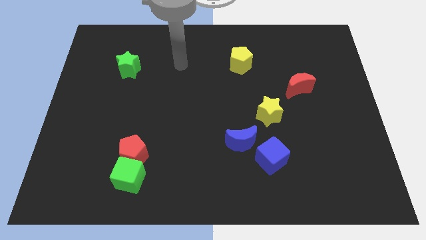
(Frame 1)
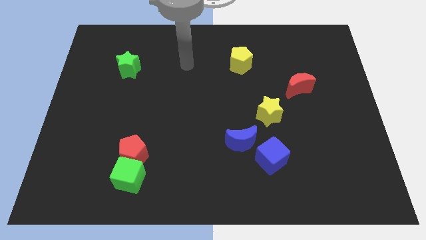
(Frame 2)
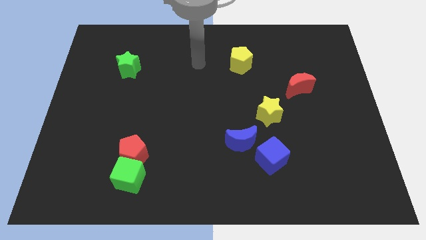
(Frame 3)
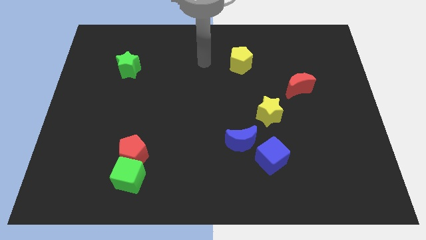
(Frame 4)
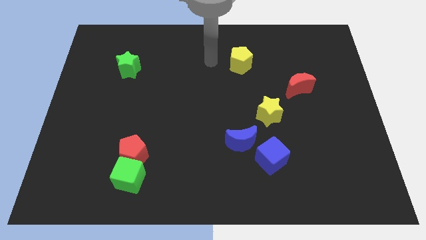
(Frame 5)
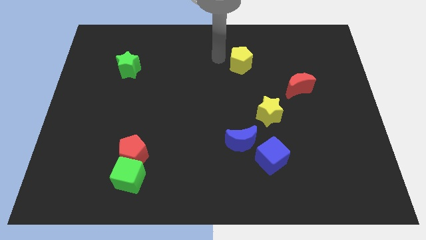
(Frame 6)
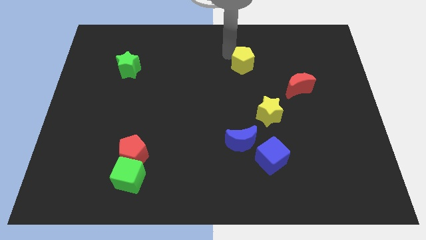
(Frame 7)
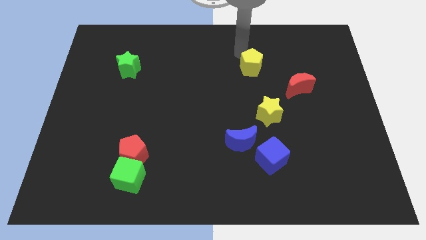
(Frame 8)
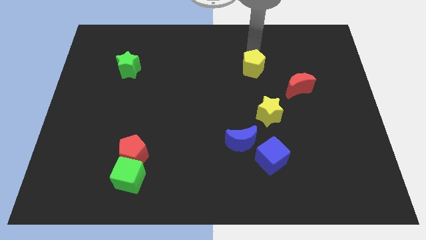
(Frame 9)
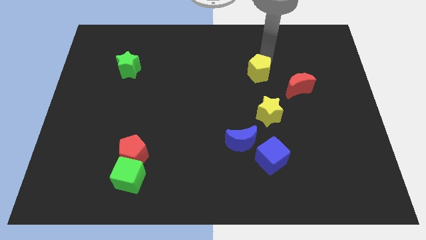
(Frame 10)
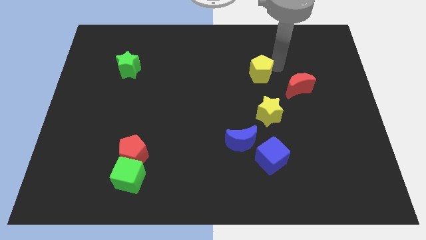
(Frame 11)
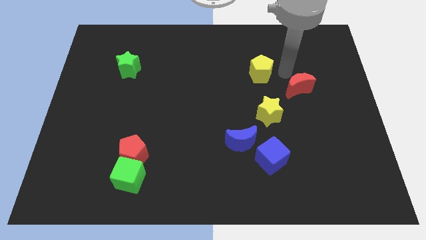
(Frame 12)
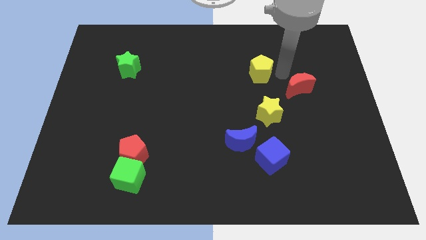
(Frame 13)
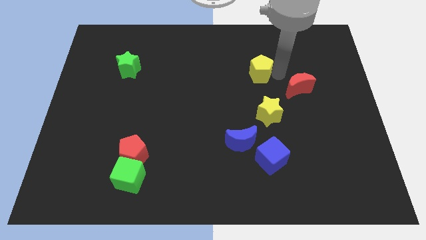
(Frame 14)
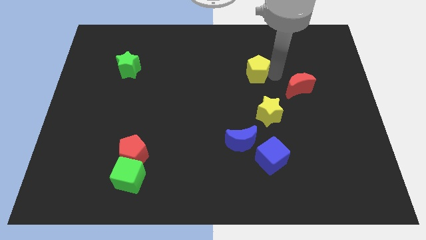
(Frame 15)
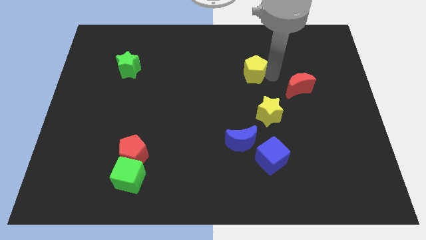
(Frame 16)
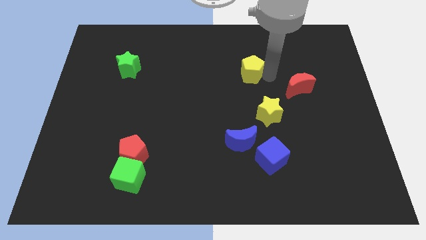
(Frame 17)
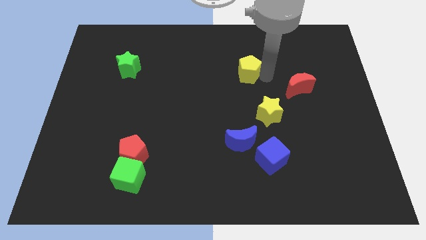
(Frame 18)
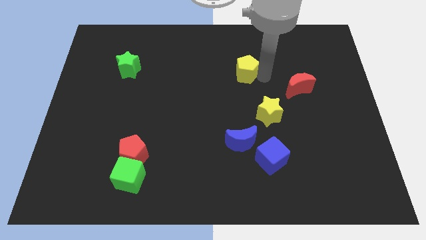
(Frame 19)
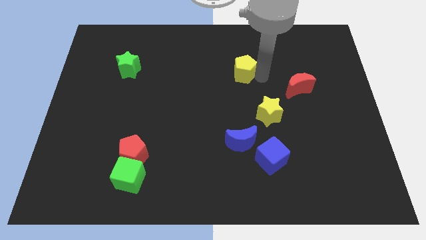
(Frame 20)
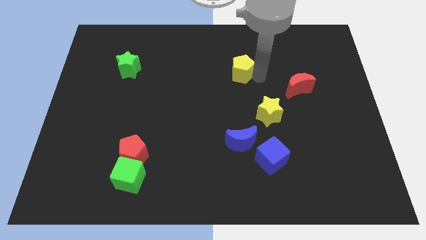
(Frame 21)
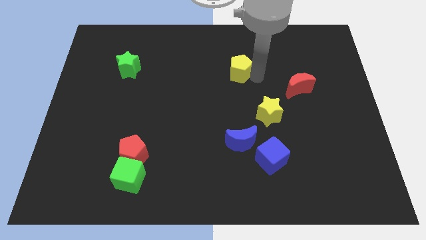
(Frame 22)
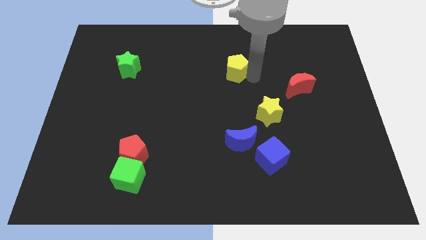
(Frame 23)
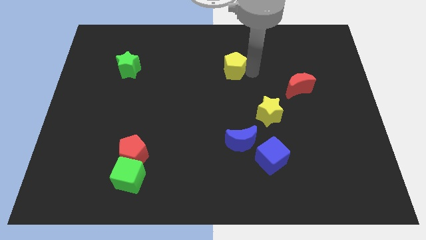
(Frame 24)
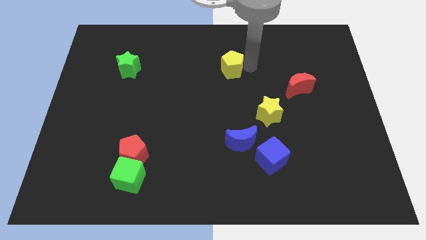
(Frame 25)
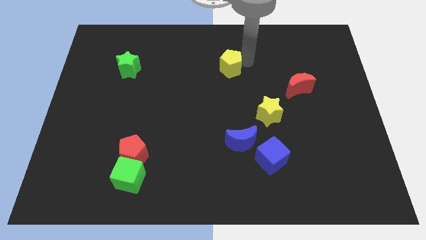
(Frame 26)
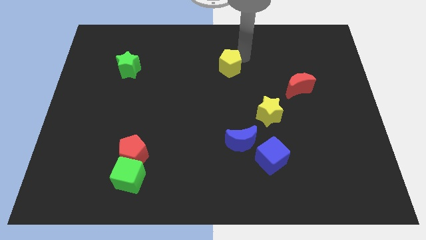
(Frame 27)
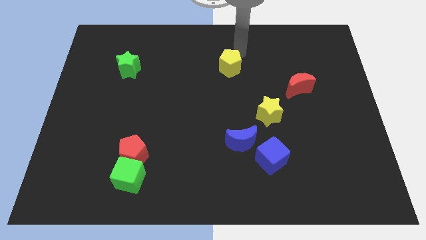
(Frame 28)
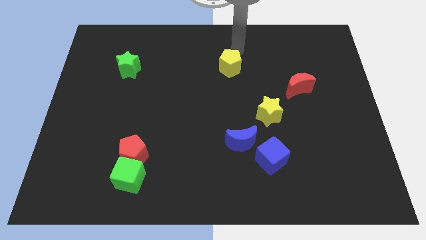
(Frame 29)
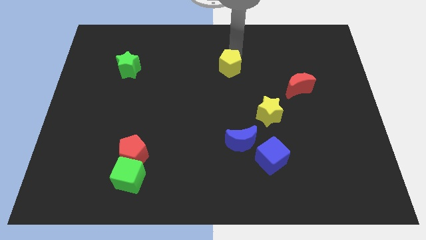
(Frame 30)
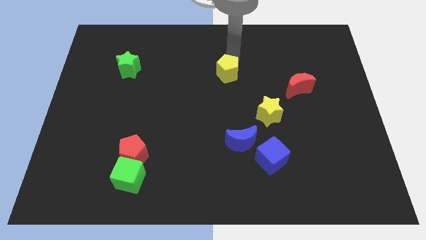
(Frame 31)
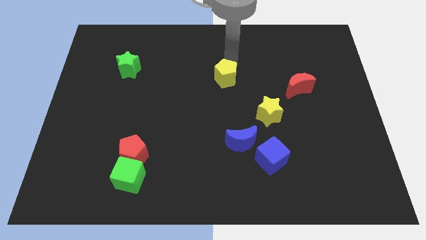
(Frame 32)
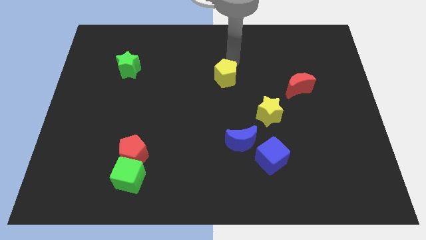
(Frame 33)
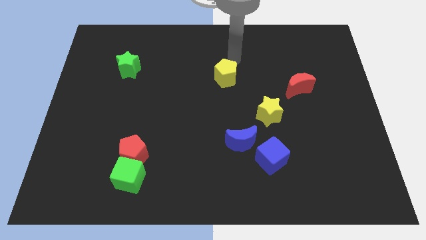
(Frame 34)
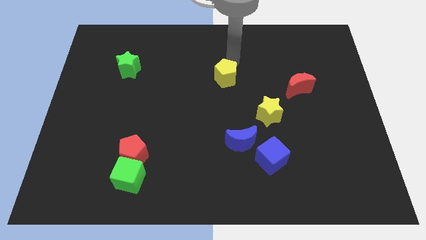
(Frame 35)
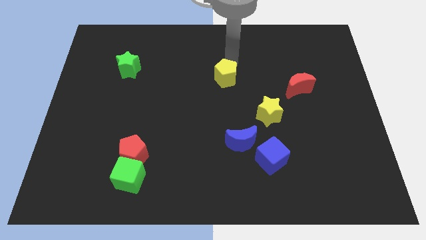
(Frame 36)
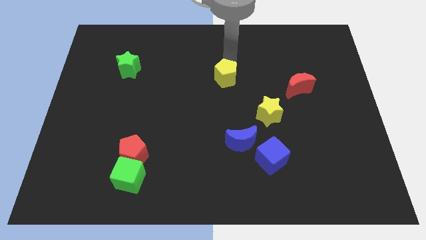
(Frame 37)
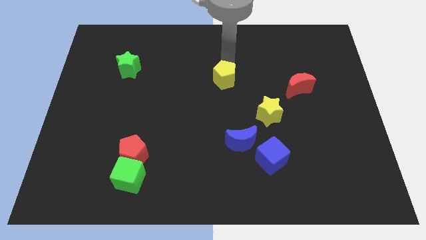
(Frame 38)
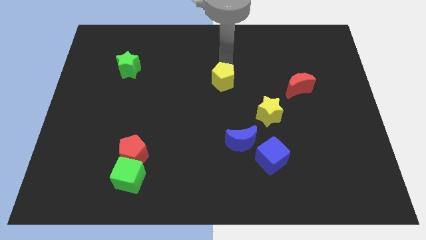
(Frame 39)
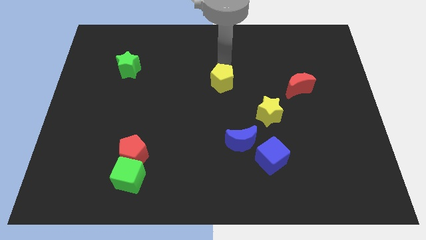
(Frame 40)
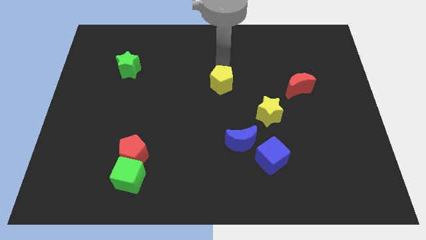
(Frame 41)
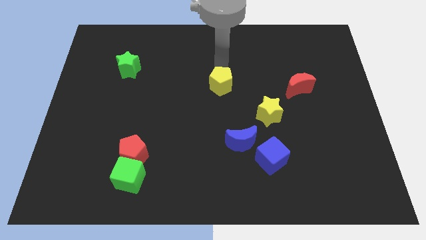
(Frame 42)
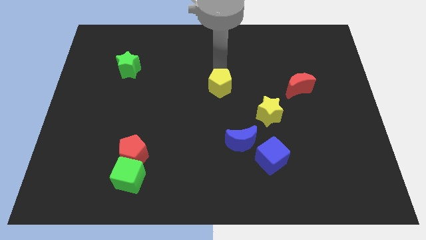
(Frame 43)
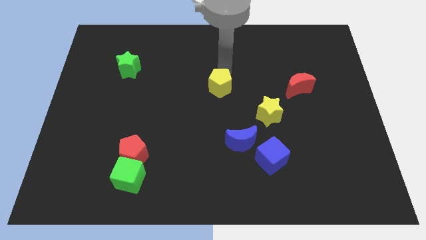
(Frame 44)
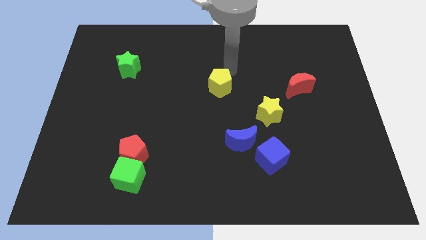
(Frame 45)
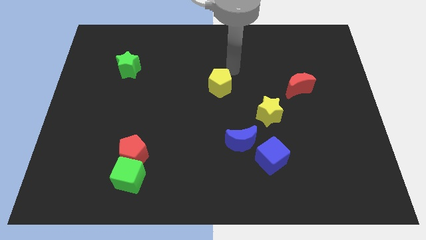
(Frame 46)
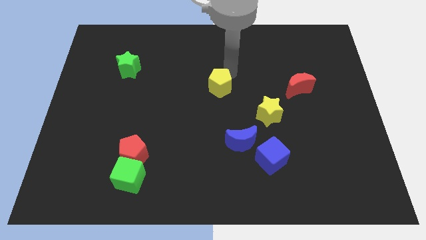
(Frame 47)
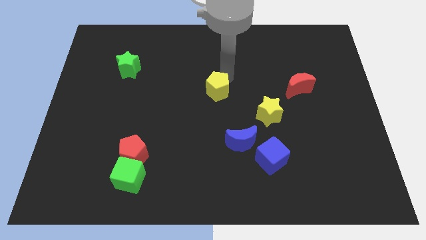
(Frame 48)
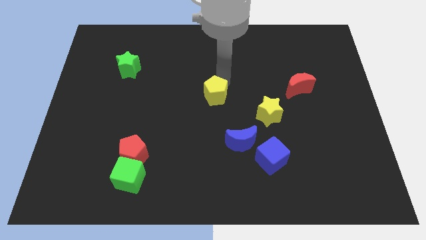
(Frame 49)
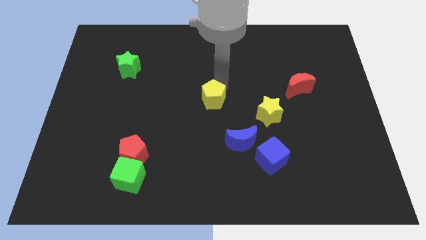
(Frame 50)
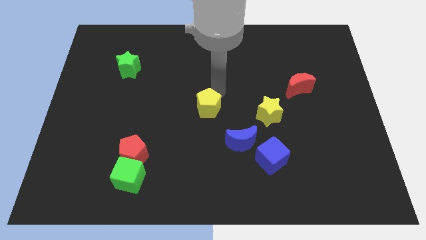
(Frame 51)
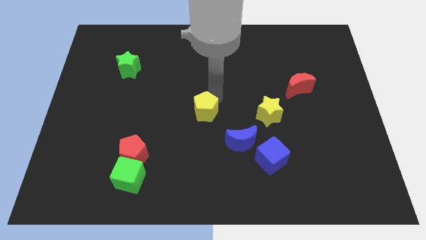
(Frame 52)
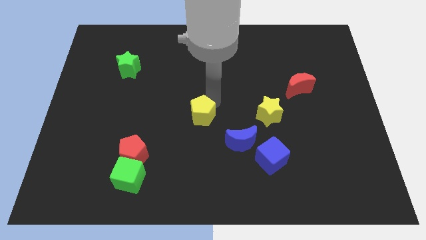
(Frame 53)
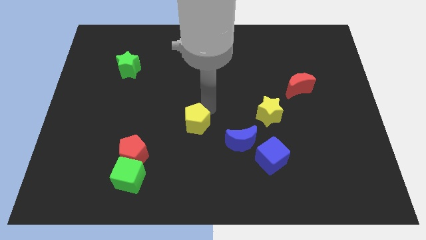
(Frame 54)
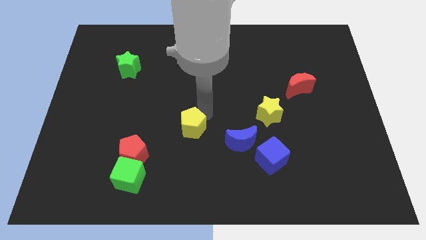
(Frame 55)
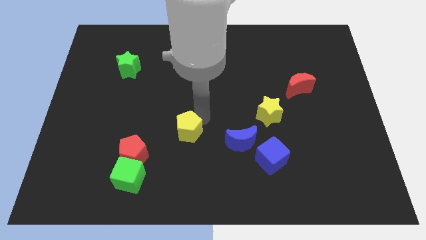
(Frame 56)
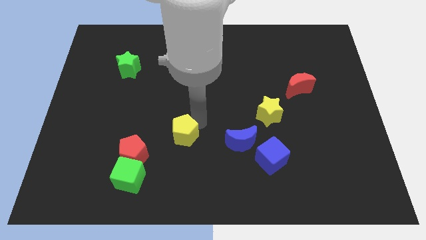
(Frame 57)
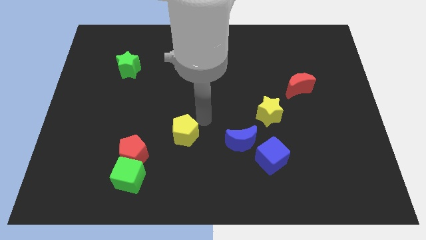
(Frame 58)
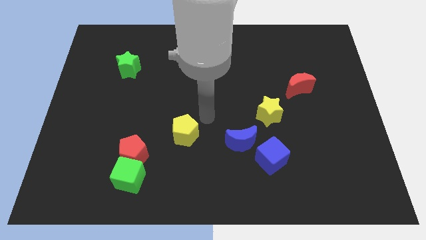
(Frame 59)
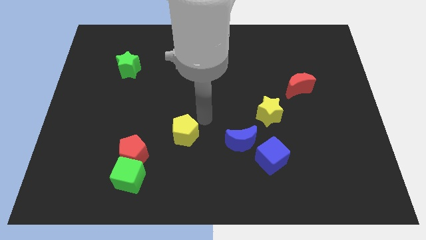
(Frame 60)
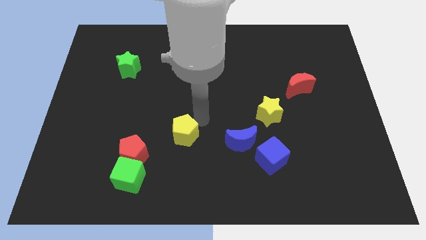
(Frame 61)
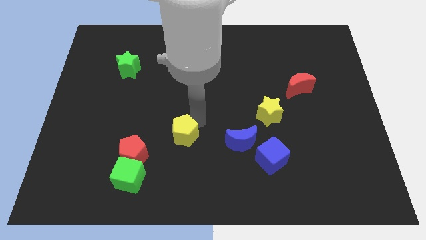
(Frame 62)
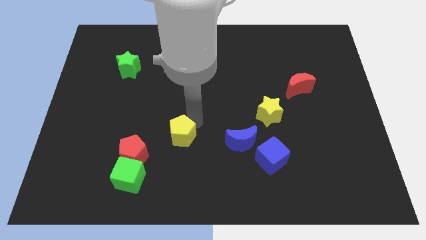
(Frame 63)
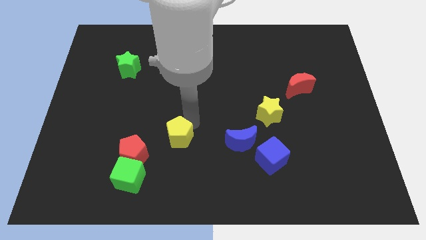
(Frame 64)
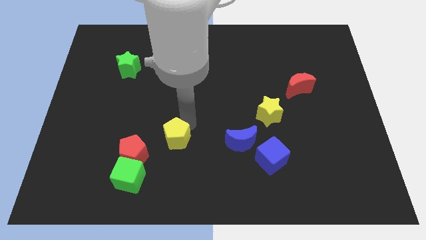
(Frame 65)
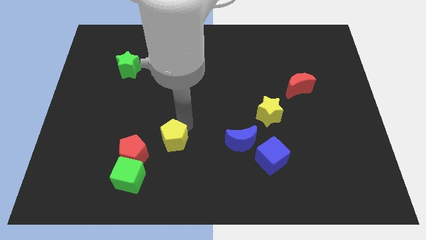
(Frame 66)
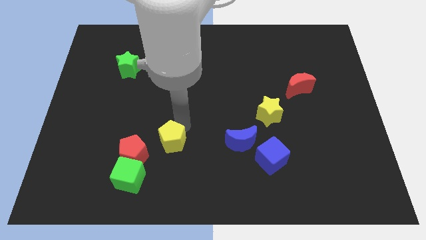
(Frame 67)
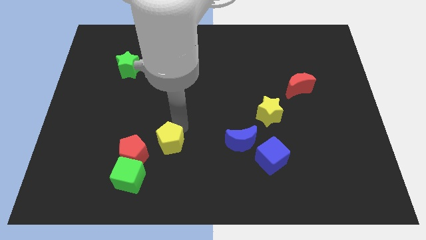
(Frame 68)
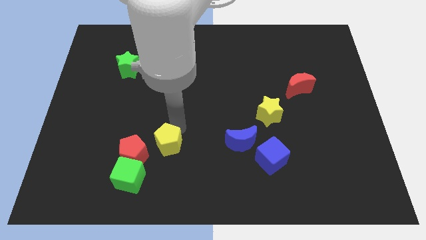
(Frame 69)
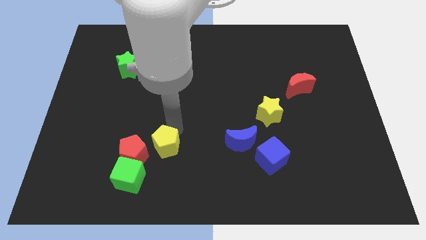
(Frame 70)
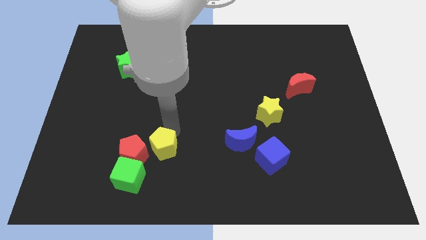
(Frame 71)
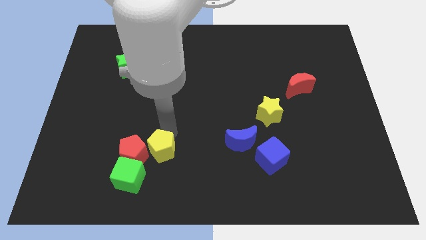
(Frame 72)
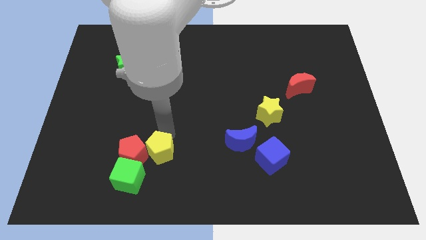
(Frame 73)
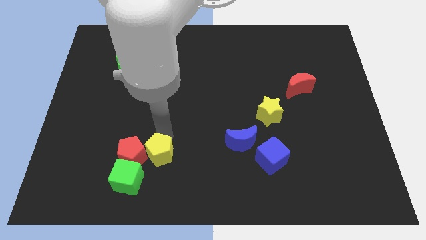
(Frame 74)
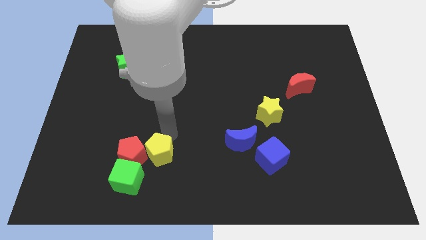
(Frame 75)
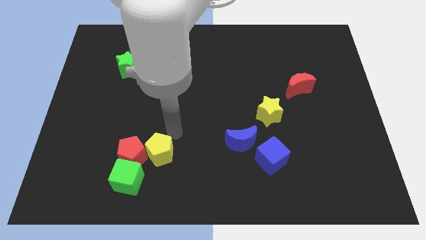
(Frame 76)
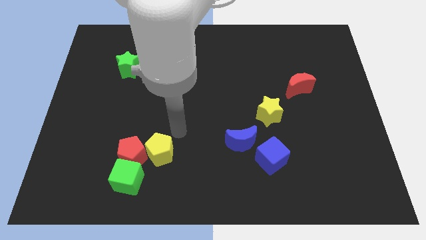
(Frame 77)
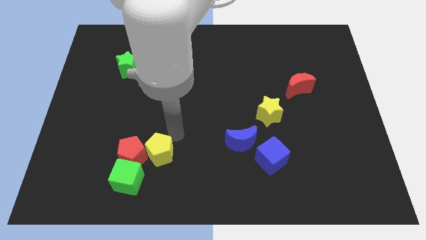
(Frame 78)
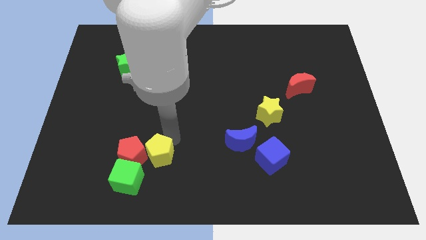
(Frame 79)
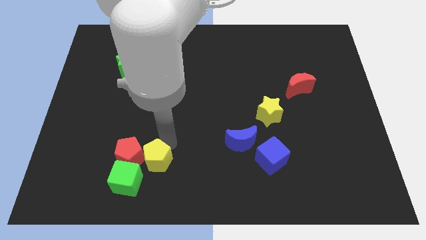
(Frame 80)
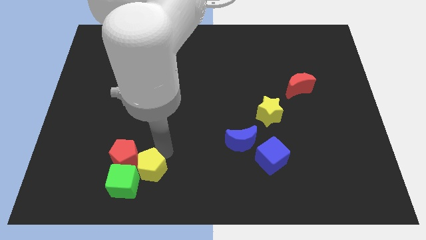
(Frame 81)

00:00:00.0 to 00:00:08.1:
slide the yellow pentagon next to the green cube
